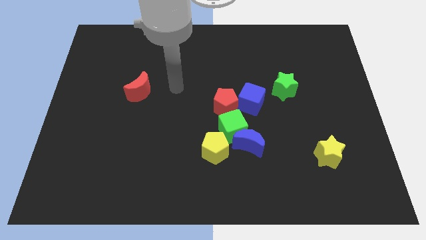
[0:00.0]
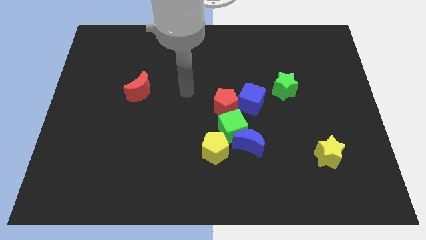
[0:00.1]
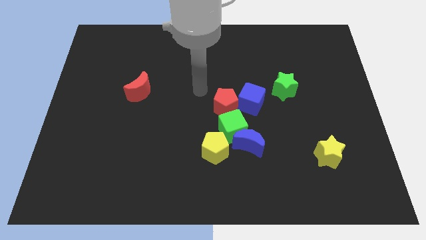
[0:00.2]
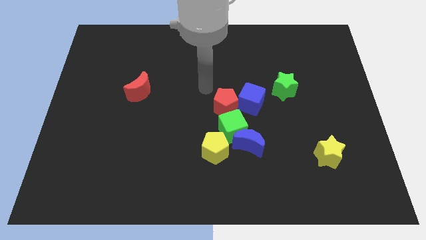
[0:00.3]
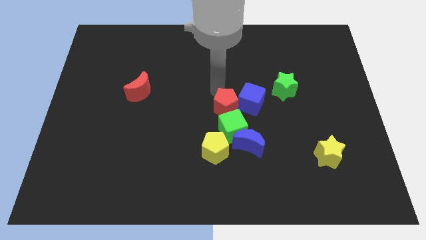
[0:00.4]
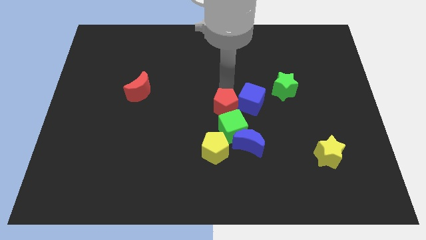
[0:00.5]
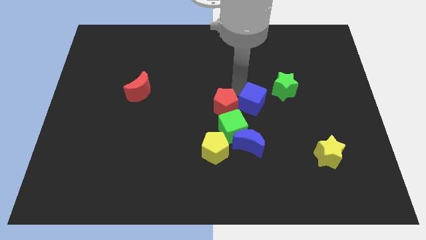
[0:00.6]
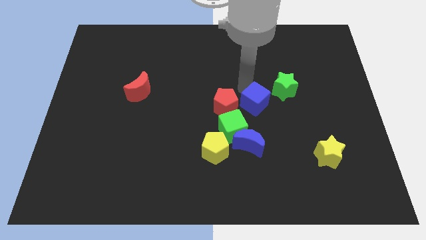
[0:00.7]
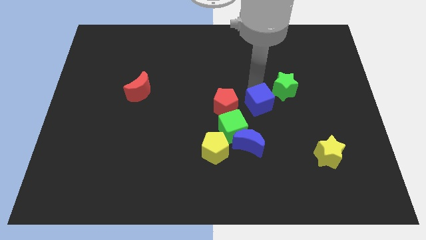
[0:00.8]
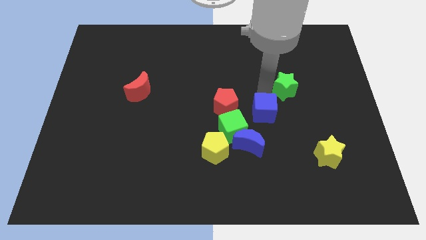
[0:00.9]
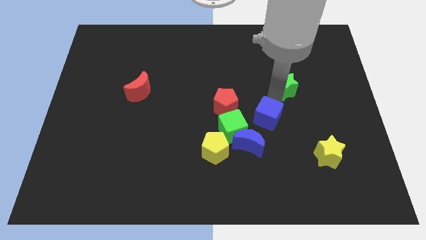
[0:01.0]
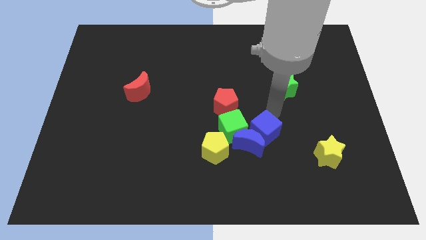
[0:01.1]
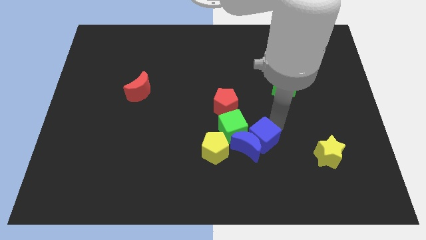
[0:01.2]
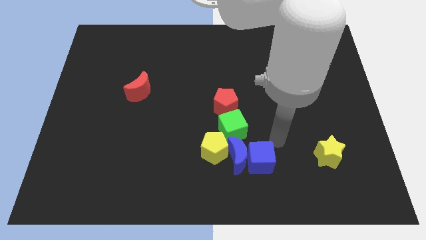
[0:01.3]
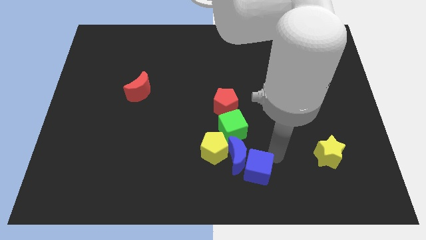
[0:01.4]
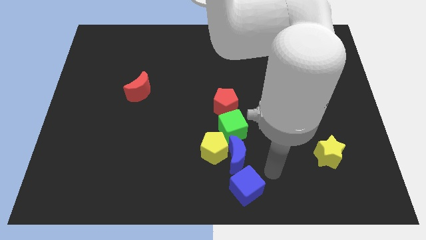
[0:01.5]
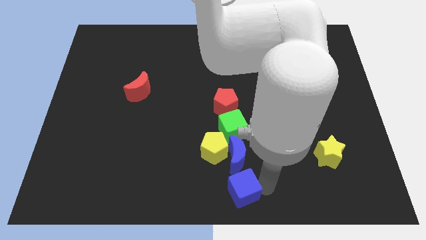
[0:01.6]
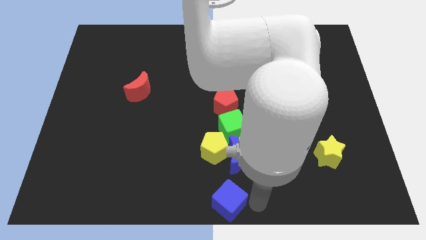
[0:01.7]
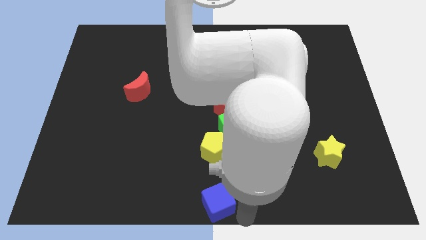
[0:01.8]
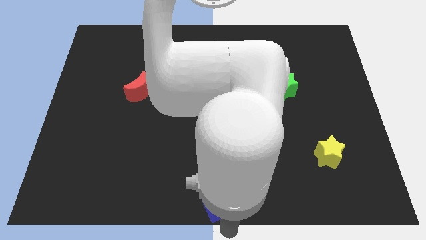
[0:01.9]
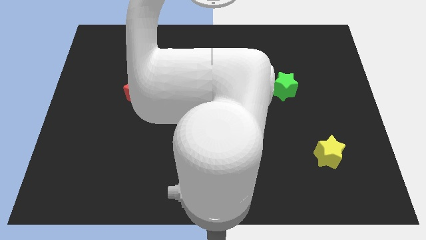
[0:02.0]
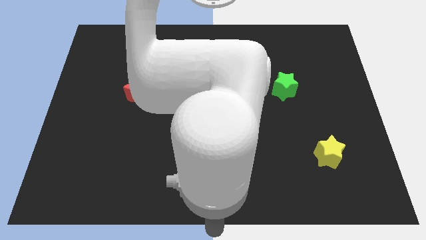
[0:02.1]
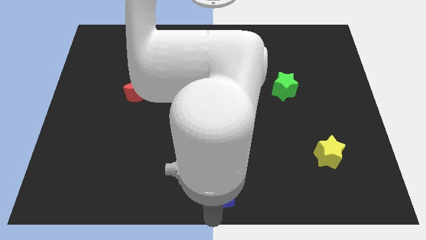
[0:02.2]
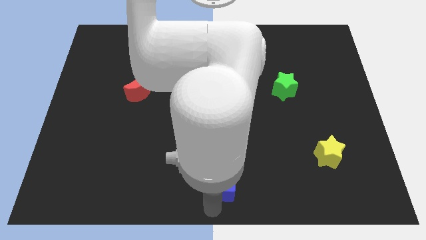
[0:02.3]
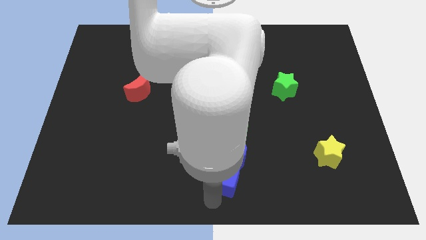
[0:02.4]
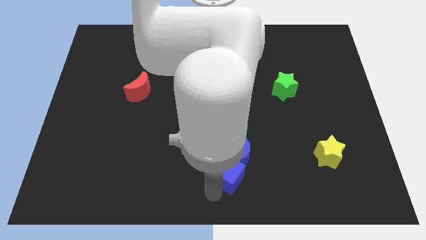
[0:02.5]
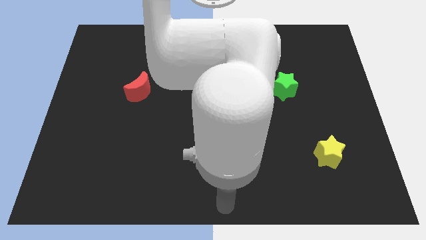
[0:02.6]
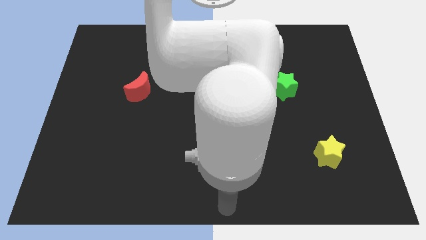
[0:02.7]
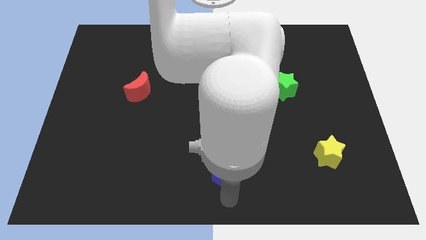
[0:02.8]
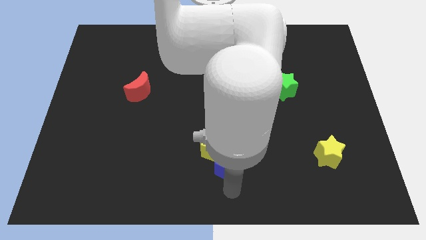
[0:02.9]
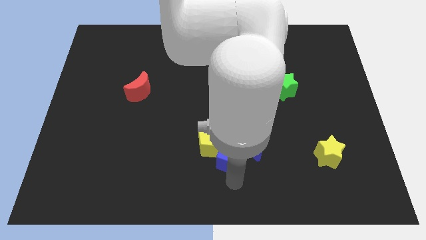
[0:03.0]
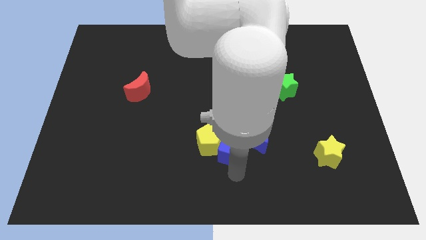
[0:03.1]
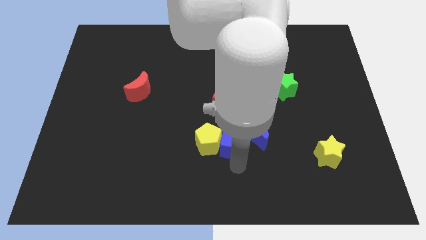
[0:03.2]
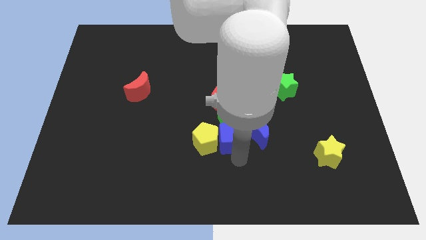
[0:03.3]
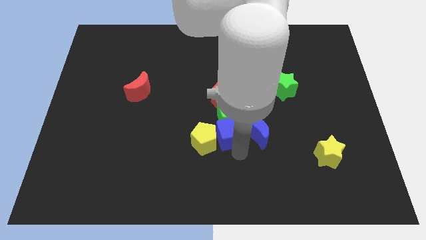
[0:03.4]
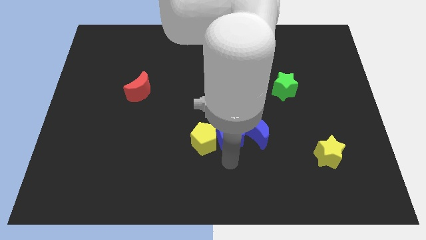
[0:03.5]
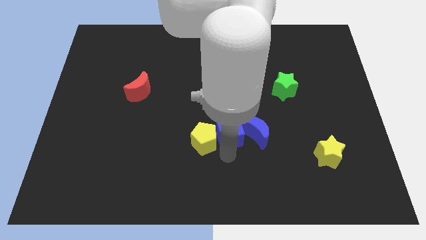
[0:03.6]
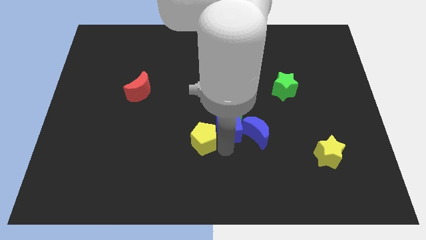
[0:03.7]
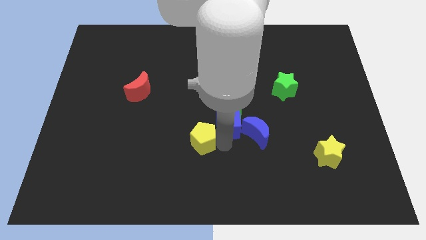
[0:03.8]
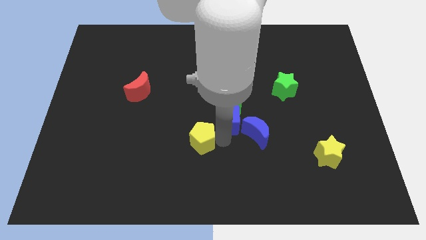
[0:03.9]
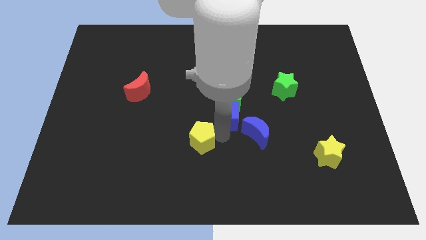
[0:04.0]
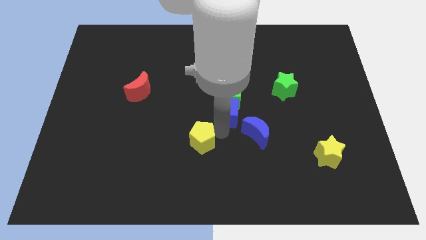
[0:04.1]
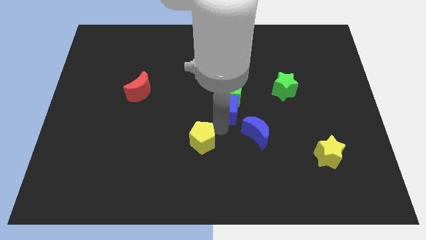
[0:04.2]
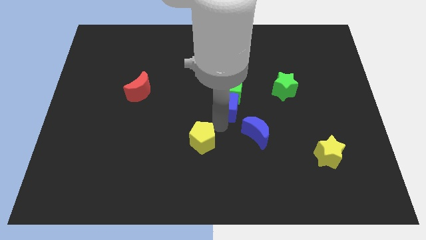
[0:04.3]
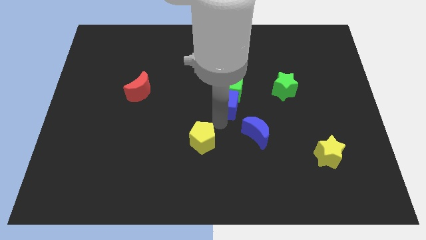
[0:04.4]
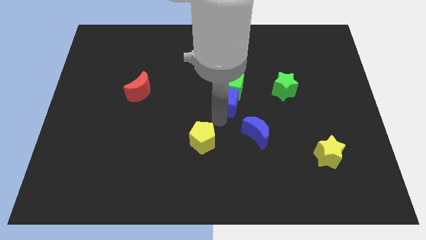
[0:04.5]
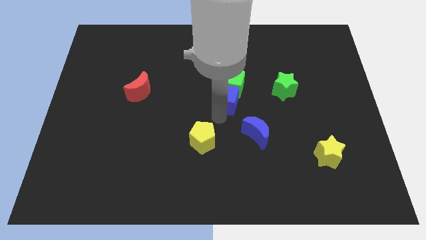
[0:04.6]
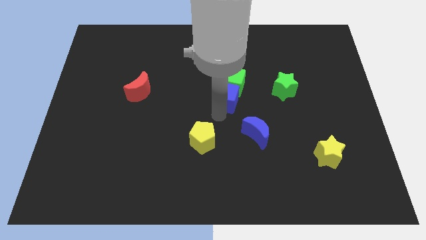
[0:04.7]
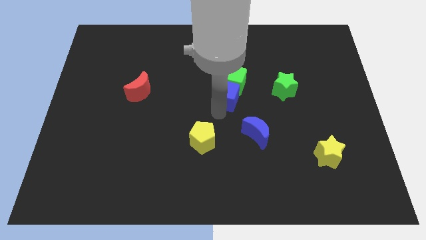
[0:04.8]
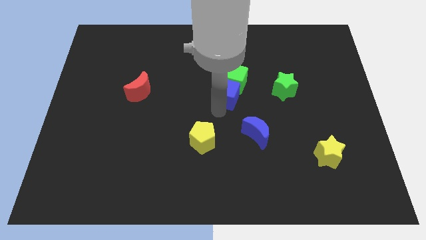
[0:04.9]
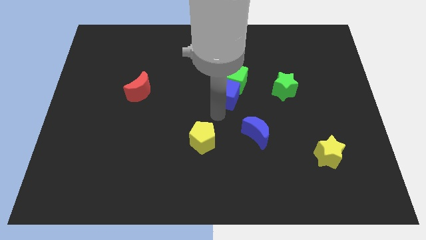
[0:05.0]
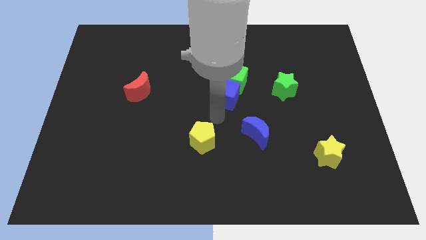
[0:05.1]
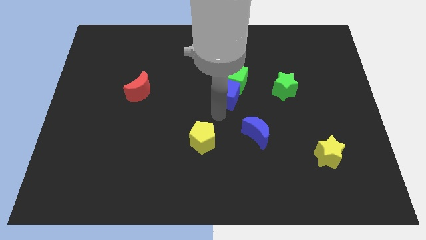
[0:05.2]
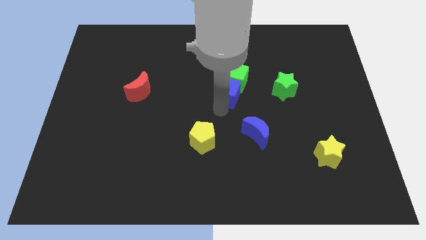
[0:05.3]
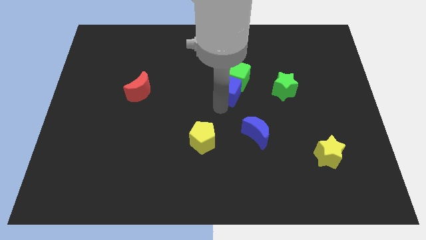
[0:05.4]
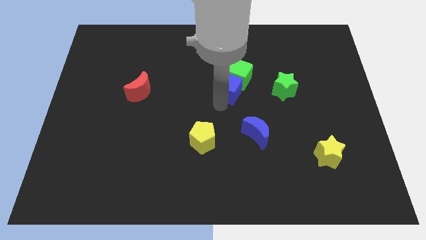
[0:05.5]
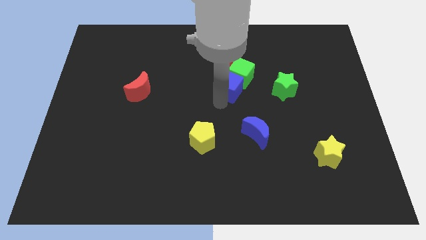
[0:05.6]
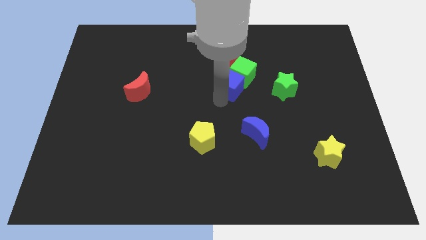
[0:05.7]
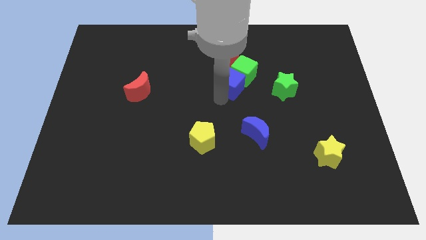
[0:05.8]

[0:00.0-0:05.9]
slightly move the blue cube up and then to the left

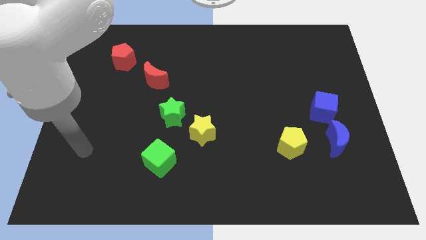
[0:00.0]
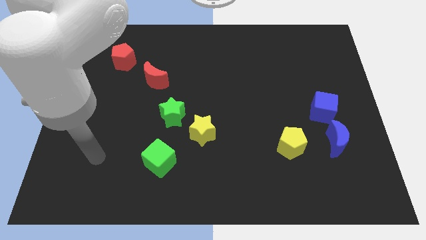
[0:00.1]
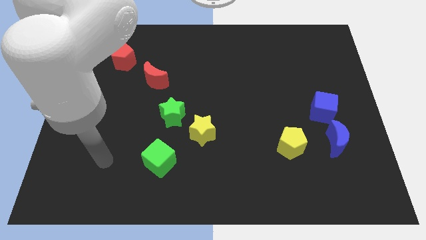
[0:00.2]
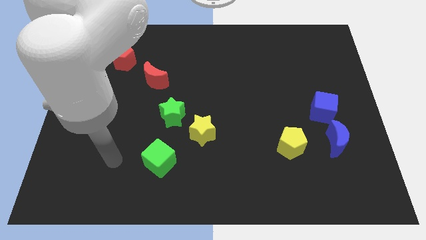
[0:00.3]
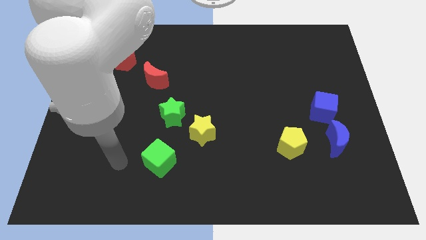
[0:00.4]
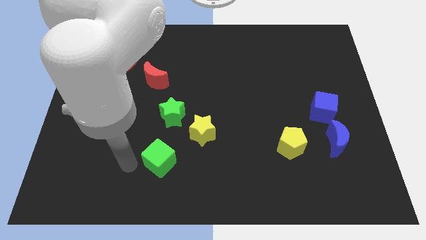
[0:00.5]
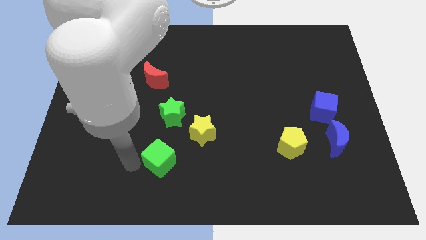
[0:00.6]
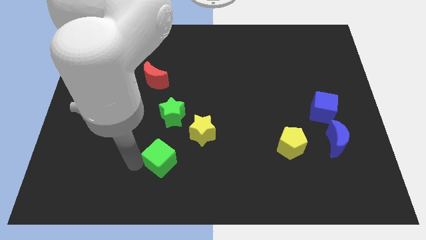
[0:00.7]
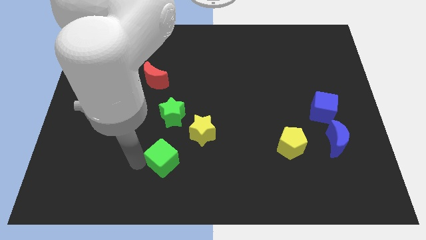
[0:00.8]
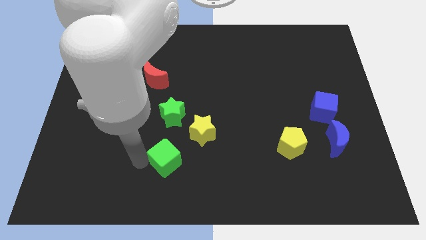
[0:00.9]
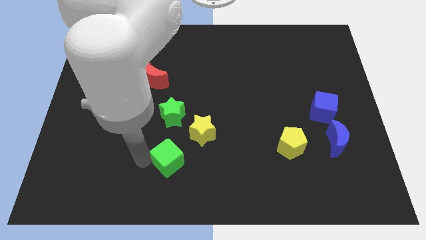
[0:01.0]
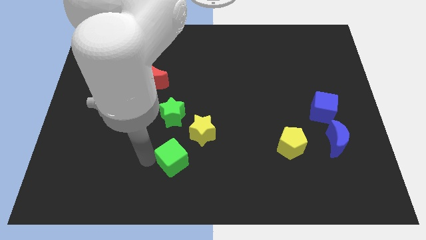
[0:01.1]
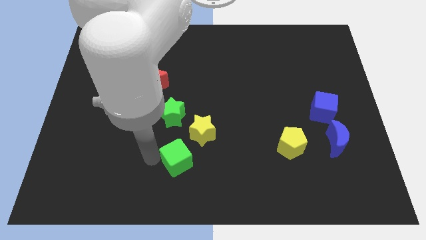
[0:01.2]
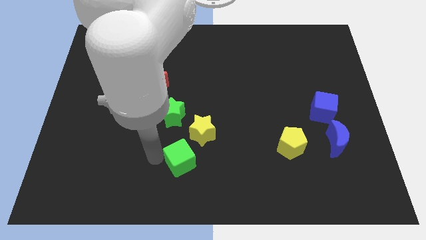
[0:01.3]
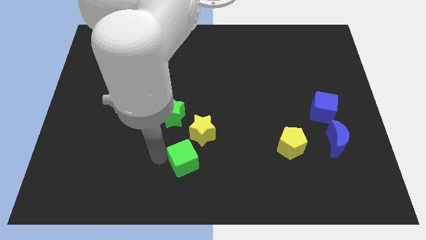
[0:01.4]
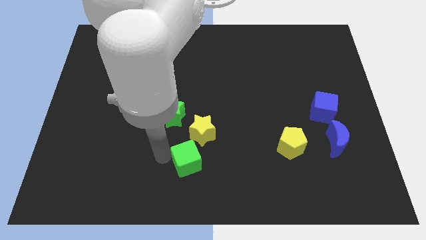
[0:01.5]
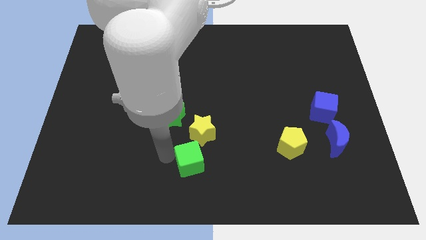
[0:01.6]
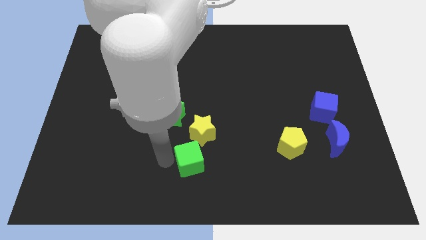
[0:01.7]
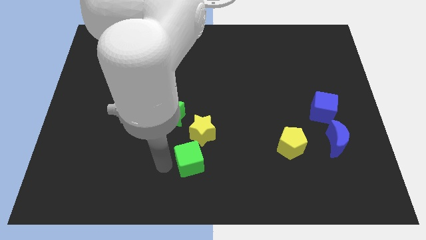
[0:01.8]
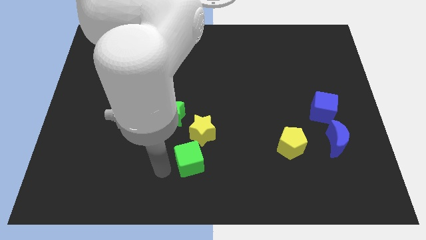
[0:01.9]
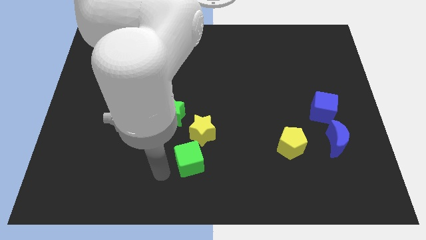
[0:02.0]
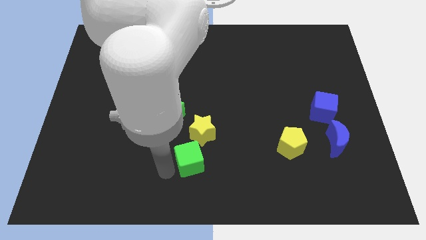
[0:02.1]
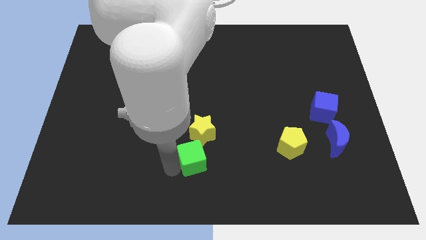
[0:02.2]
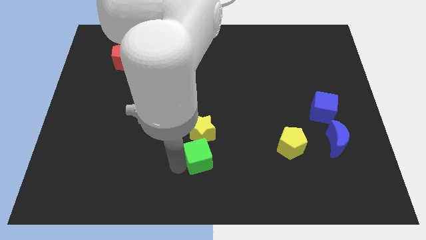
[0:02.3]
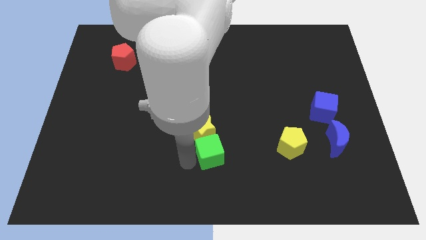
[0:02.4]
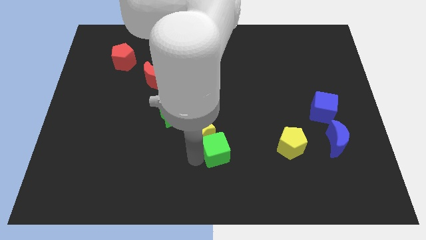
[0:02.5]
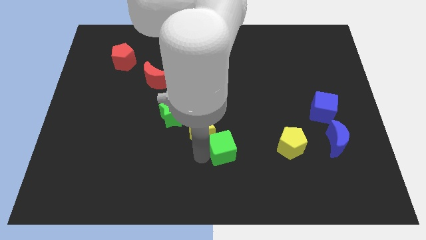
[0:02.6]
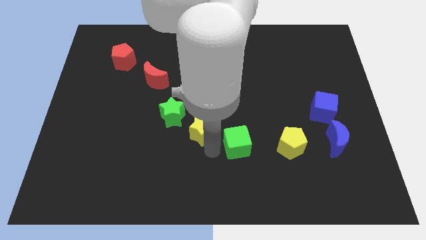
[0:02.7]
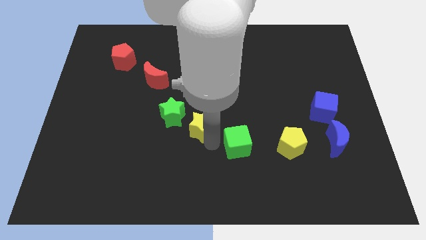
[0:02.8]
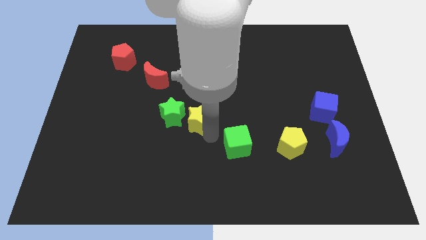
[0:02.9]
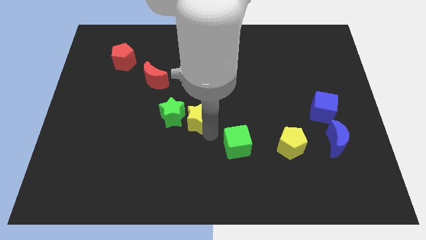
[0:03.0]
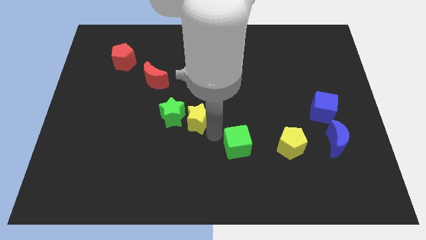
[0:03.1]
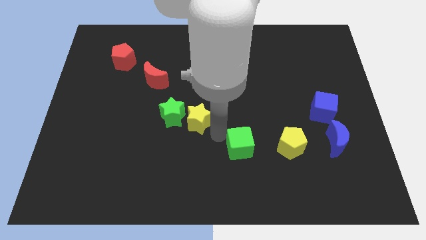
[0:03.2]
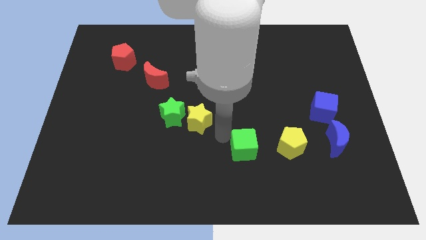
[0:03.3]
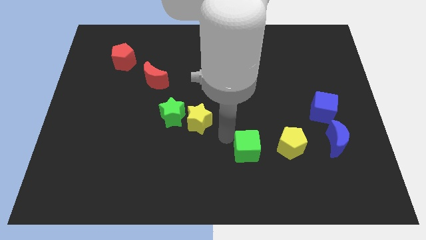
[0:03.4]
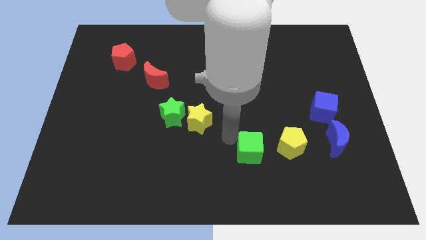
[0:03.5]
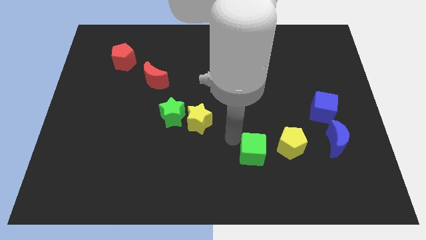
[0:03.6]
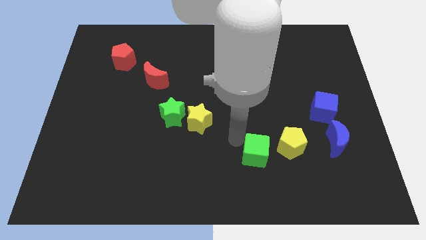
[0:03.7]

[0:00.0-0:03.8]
slide the green cube right
